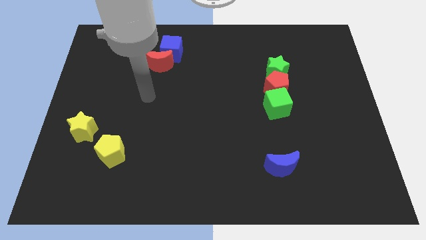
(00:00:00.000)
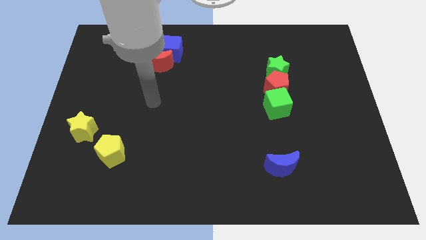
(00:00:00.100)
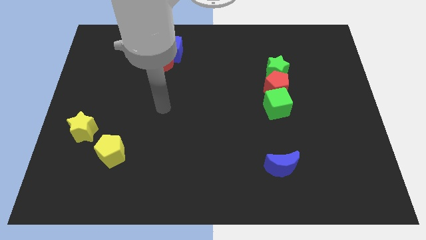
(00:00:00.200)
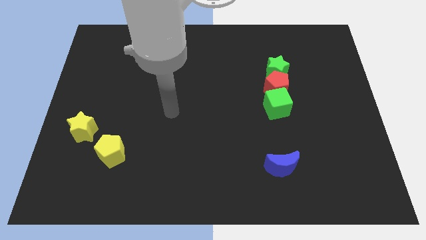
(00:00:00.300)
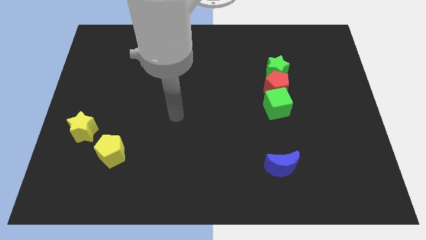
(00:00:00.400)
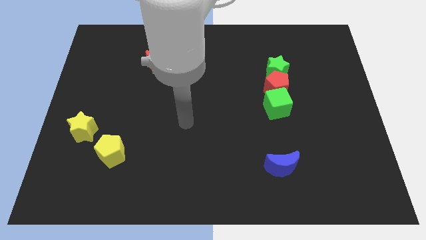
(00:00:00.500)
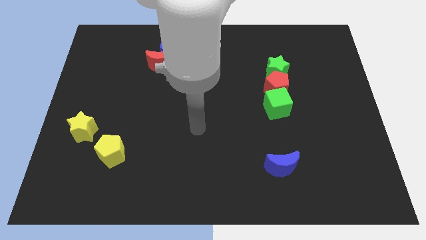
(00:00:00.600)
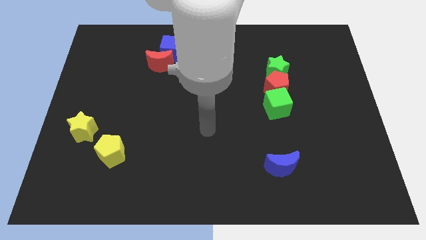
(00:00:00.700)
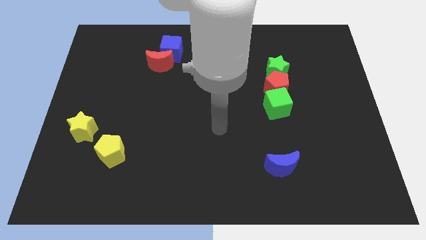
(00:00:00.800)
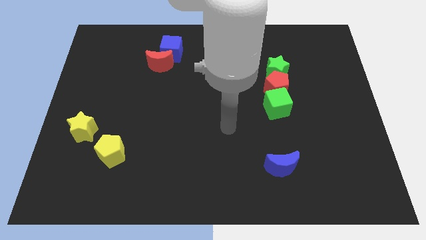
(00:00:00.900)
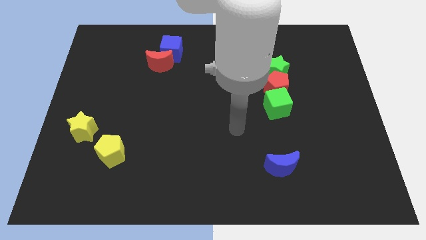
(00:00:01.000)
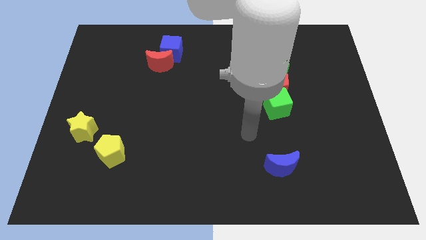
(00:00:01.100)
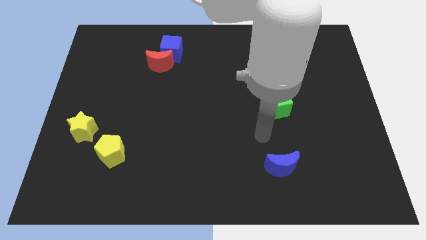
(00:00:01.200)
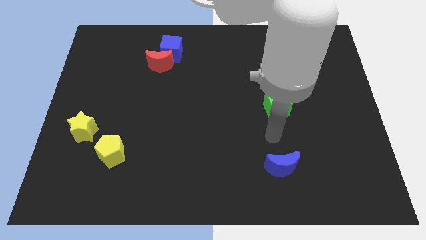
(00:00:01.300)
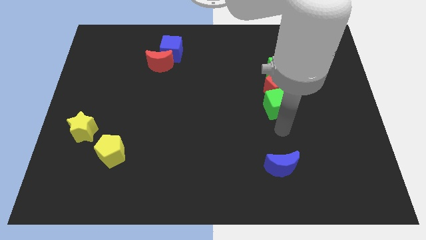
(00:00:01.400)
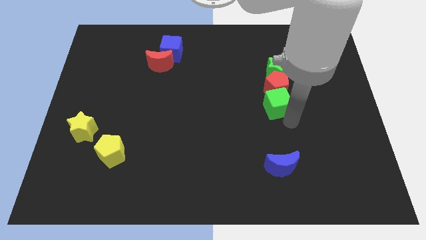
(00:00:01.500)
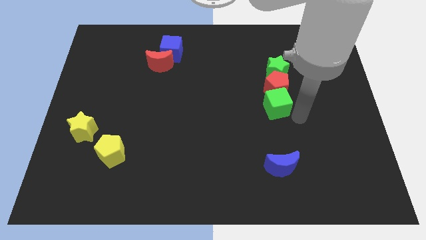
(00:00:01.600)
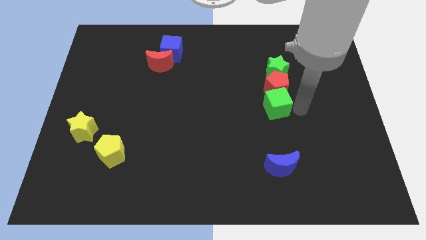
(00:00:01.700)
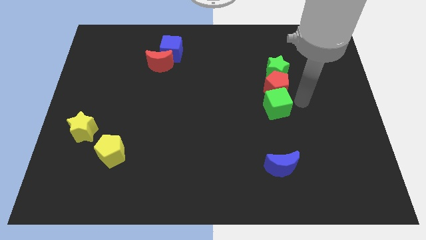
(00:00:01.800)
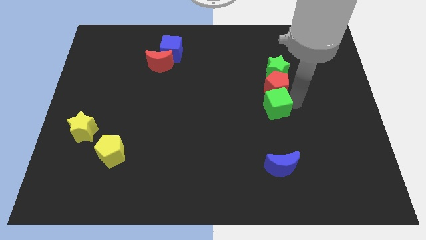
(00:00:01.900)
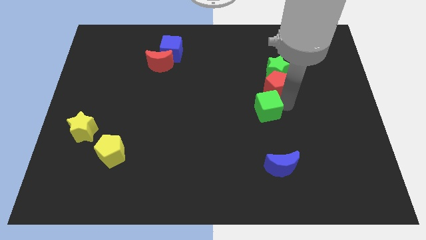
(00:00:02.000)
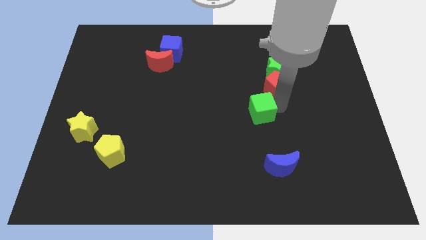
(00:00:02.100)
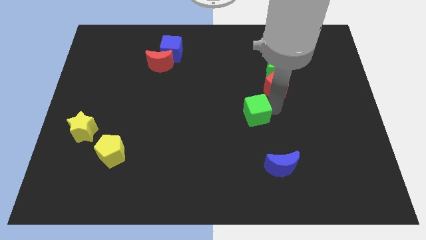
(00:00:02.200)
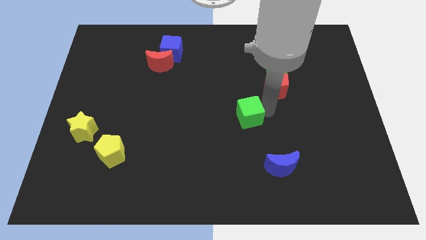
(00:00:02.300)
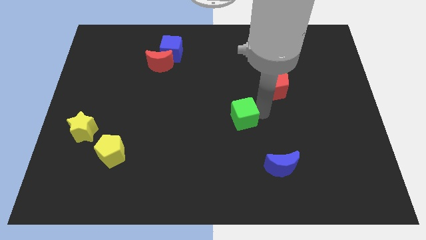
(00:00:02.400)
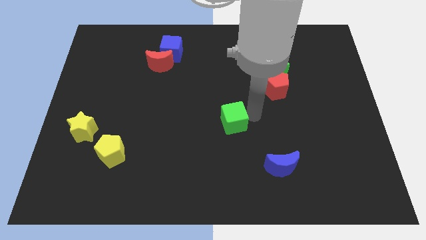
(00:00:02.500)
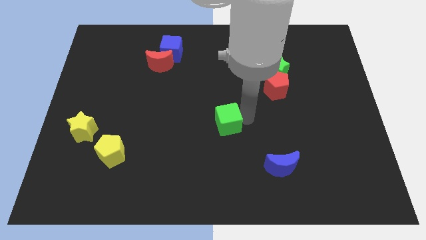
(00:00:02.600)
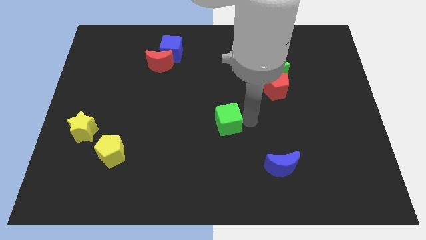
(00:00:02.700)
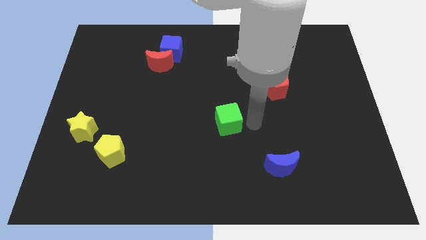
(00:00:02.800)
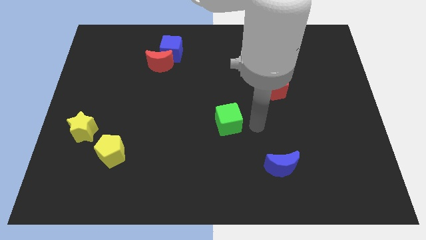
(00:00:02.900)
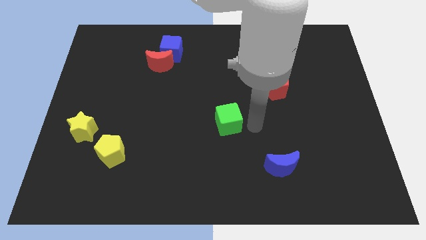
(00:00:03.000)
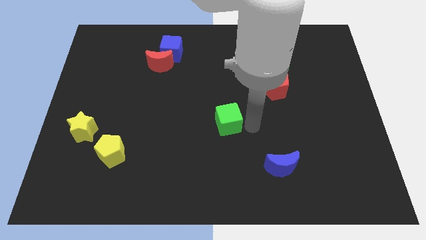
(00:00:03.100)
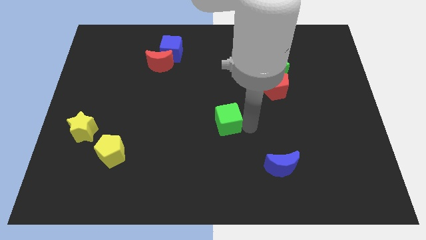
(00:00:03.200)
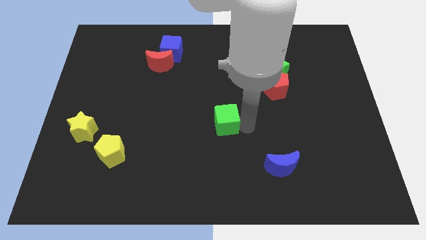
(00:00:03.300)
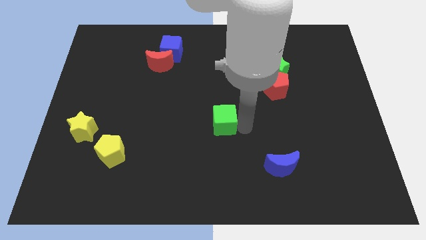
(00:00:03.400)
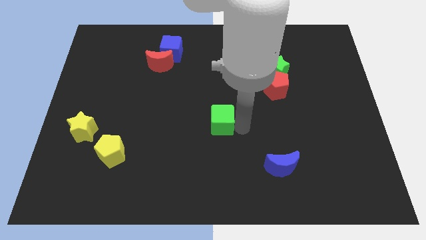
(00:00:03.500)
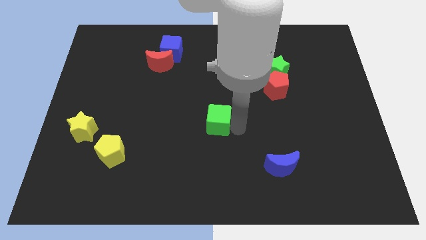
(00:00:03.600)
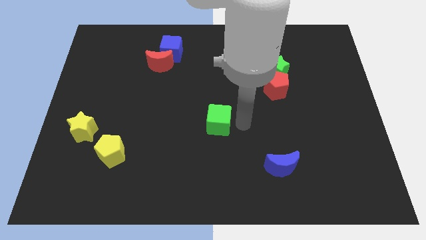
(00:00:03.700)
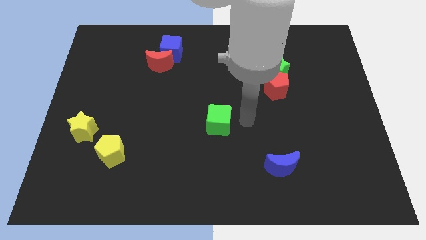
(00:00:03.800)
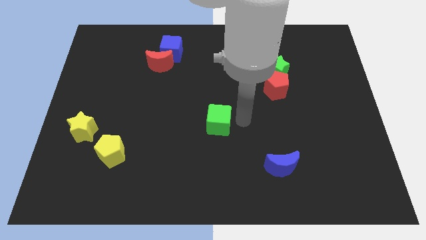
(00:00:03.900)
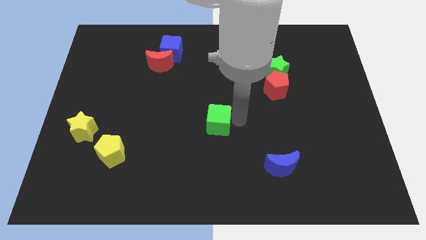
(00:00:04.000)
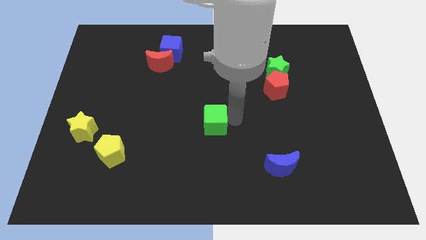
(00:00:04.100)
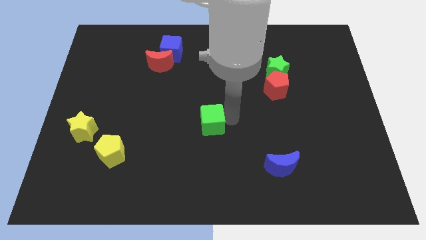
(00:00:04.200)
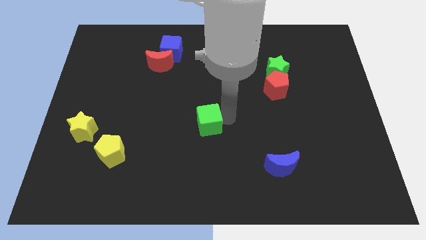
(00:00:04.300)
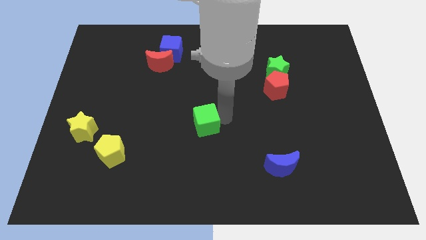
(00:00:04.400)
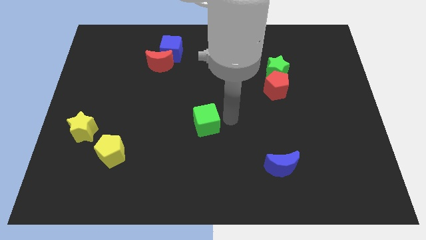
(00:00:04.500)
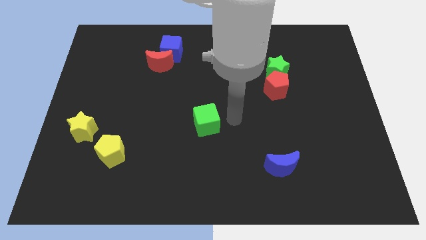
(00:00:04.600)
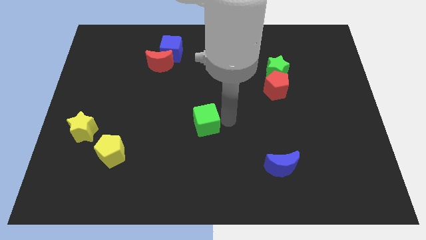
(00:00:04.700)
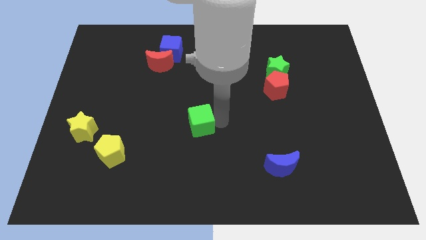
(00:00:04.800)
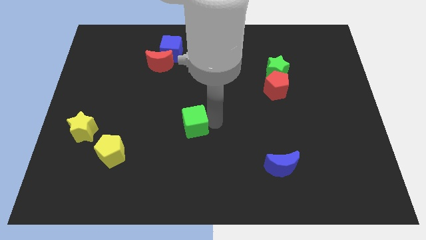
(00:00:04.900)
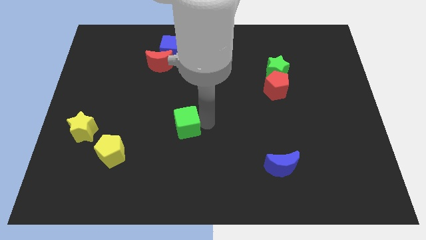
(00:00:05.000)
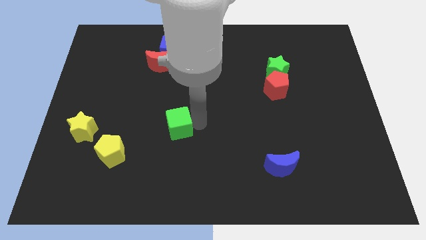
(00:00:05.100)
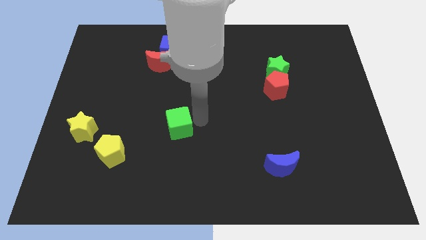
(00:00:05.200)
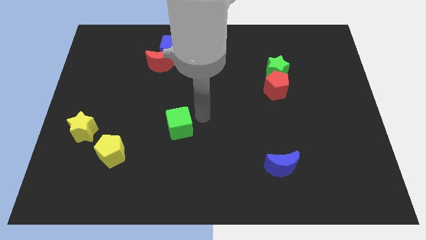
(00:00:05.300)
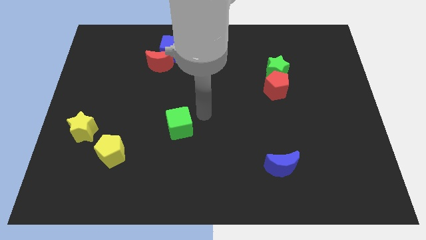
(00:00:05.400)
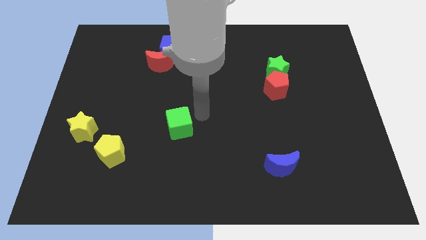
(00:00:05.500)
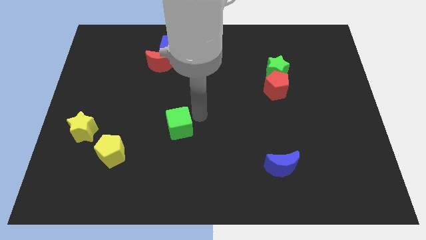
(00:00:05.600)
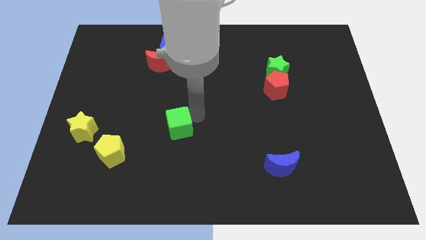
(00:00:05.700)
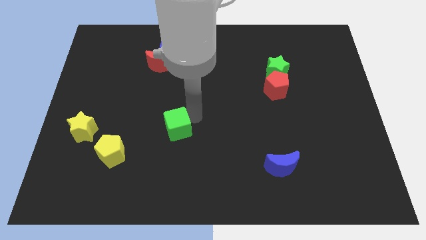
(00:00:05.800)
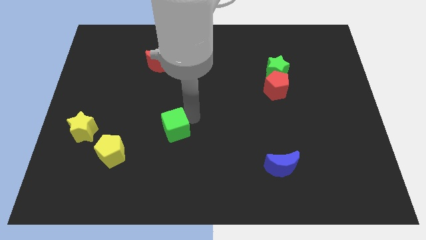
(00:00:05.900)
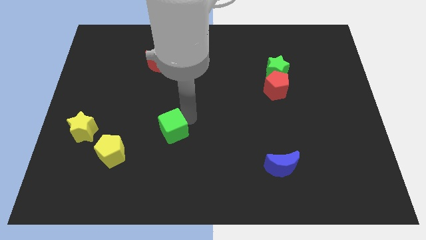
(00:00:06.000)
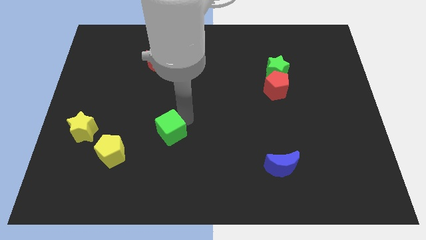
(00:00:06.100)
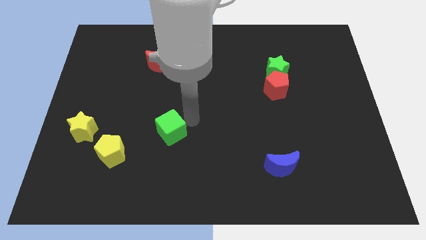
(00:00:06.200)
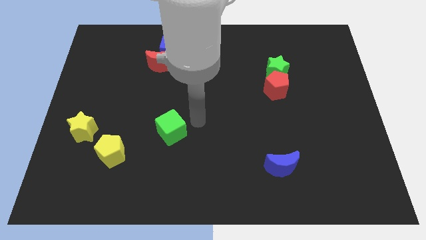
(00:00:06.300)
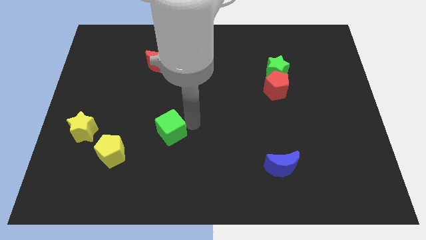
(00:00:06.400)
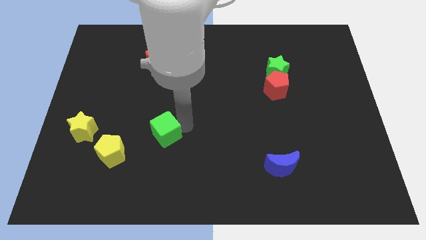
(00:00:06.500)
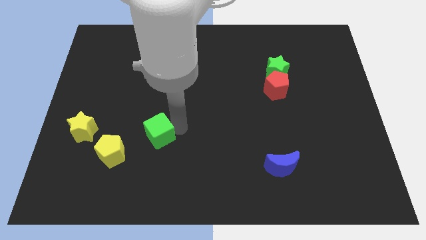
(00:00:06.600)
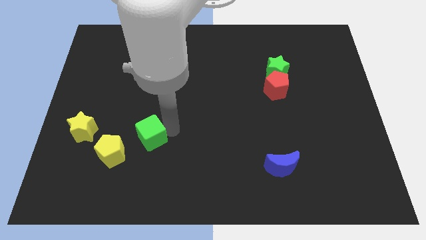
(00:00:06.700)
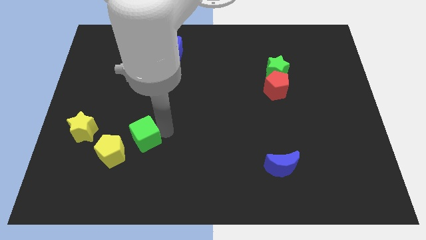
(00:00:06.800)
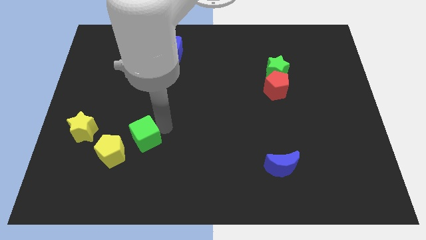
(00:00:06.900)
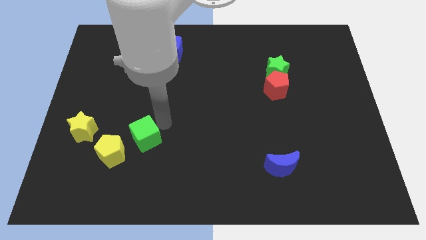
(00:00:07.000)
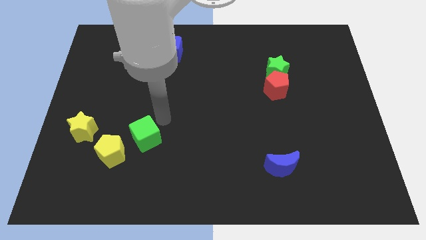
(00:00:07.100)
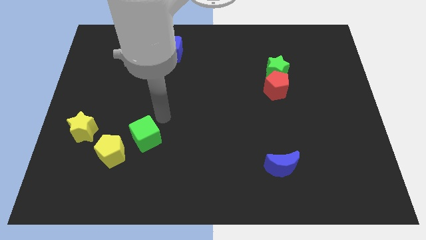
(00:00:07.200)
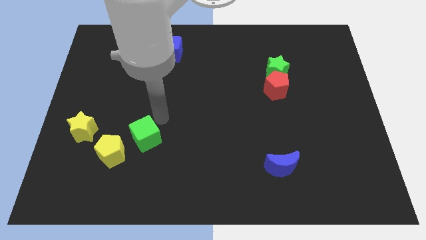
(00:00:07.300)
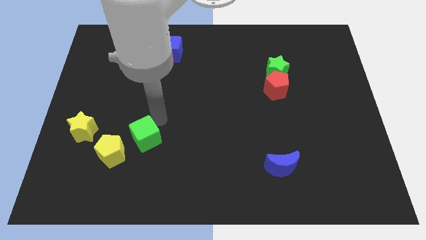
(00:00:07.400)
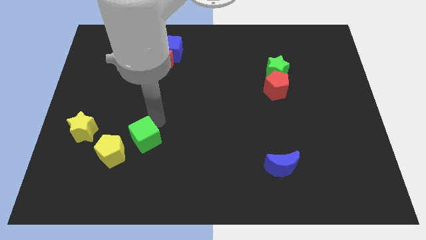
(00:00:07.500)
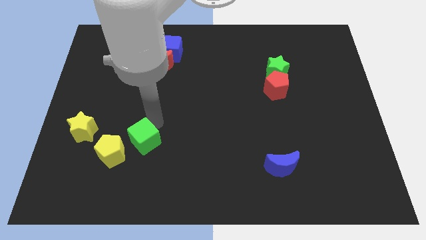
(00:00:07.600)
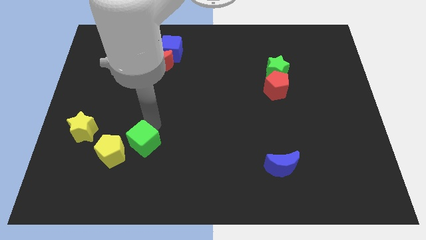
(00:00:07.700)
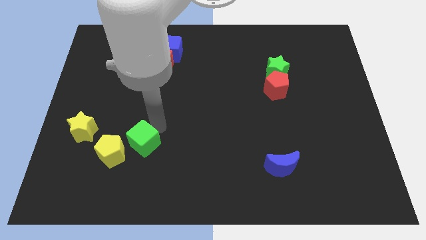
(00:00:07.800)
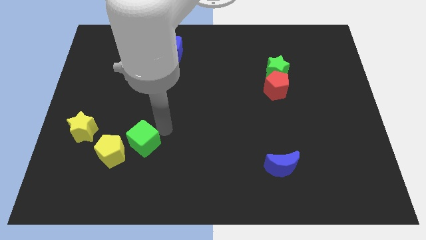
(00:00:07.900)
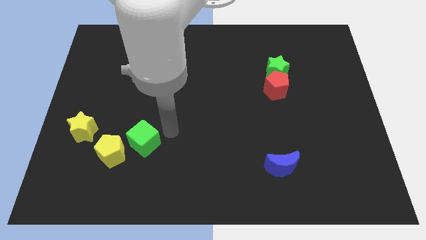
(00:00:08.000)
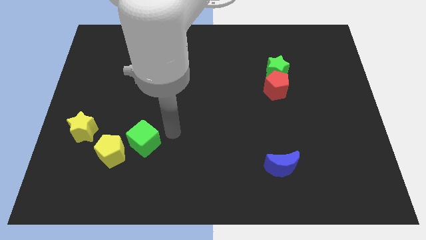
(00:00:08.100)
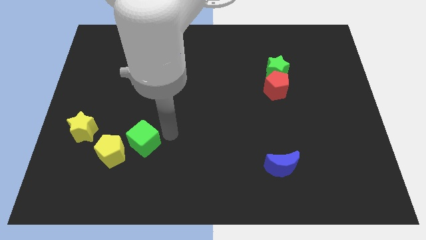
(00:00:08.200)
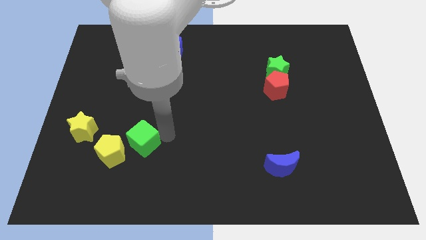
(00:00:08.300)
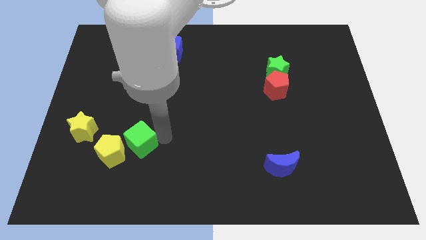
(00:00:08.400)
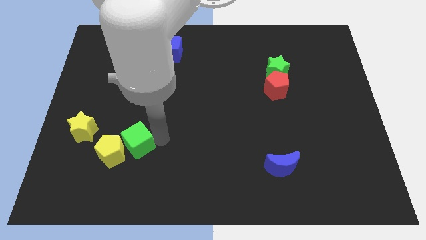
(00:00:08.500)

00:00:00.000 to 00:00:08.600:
put the green cube next to the yellow pentagon
